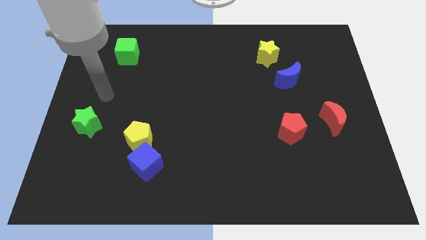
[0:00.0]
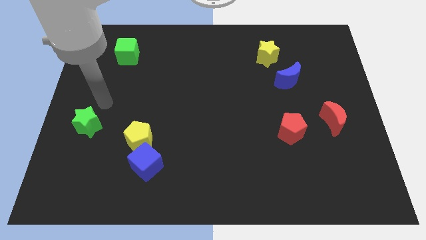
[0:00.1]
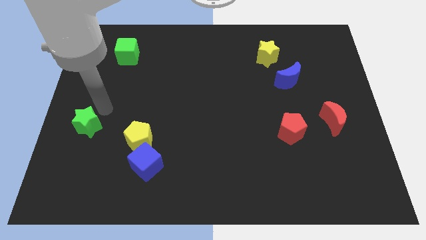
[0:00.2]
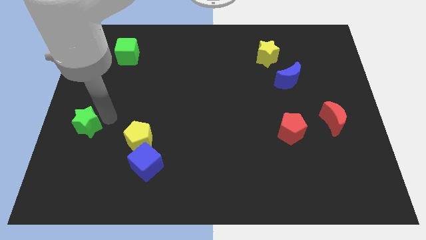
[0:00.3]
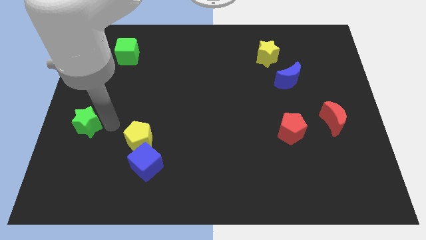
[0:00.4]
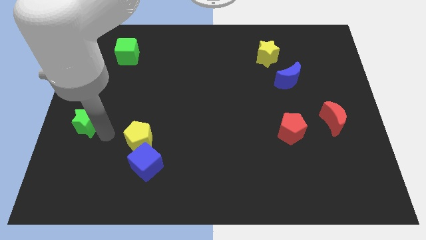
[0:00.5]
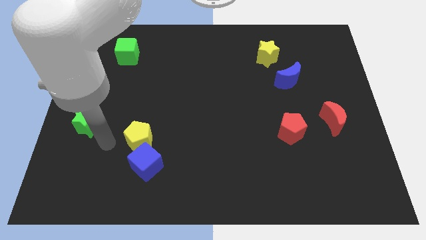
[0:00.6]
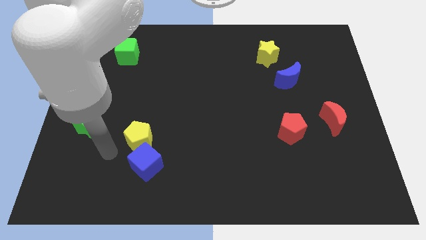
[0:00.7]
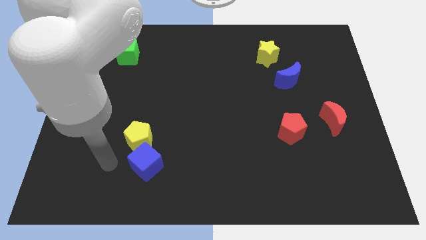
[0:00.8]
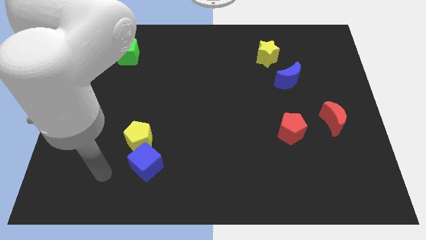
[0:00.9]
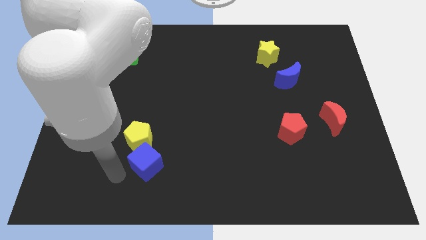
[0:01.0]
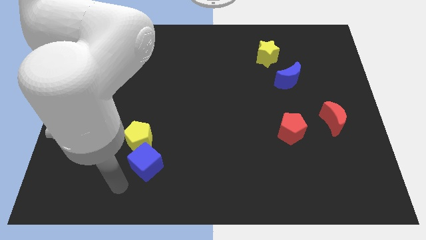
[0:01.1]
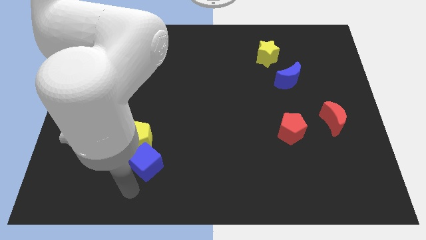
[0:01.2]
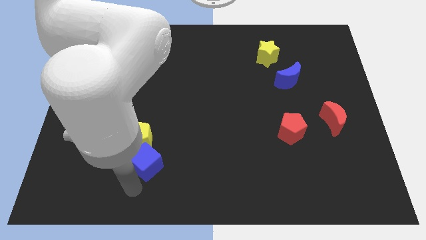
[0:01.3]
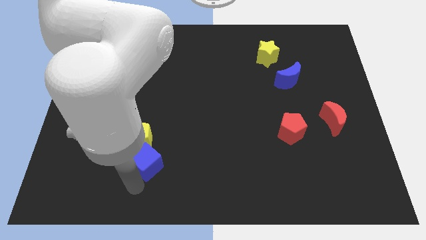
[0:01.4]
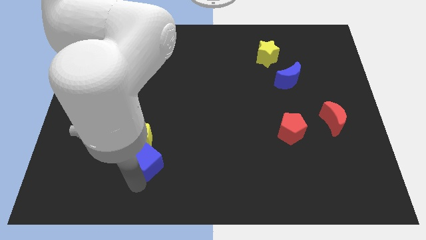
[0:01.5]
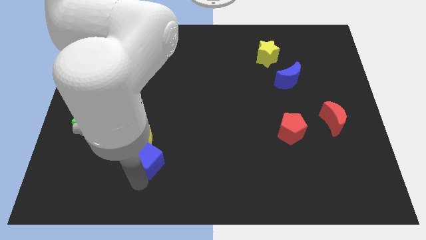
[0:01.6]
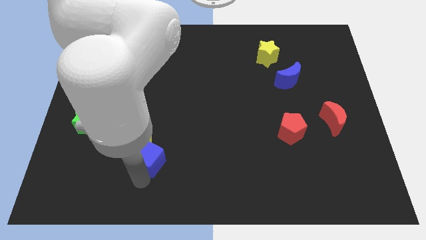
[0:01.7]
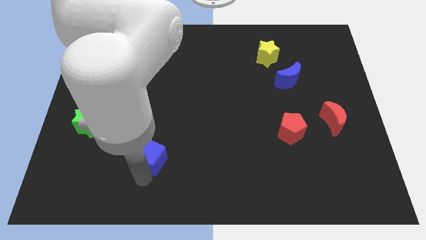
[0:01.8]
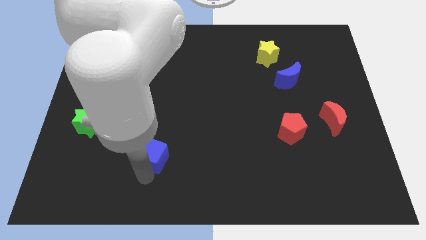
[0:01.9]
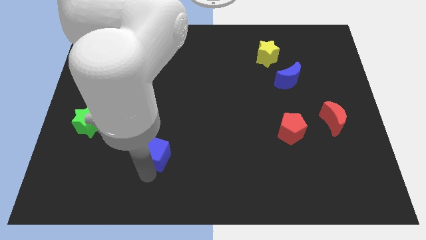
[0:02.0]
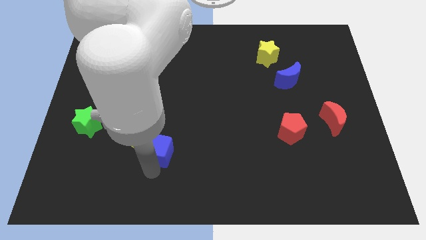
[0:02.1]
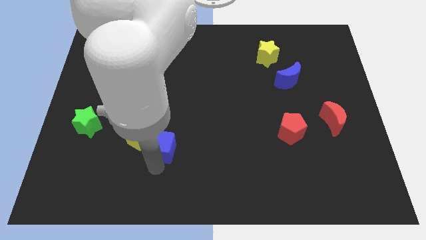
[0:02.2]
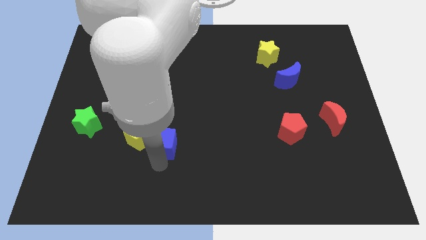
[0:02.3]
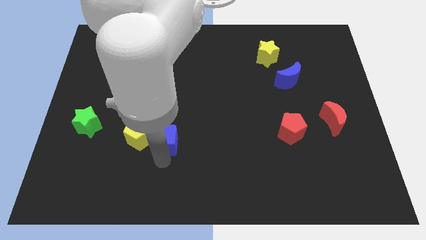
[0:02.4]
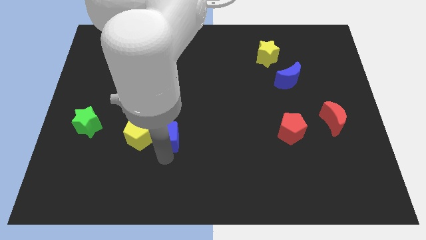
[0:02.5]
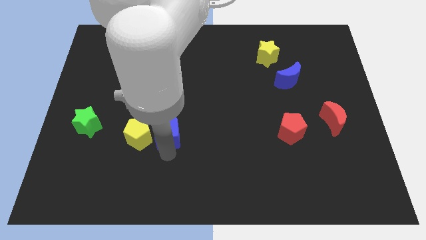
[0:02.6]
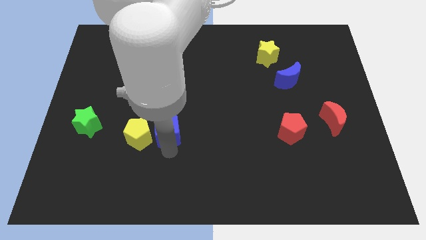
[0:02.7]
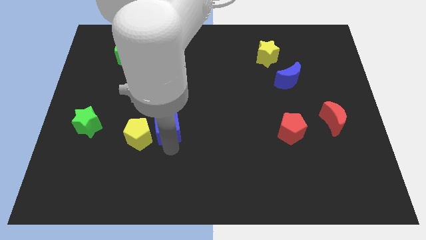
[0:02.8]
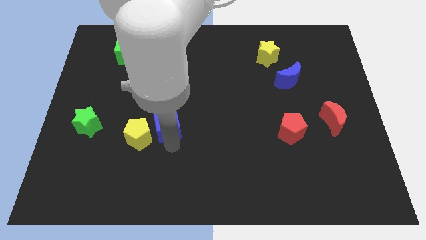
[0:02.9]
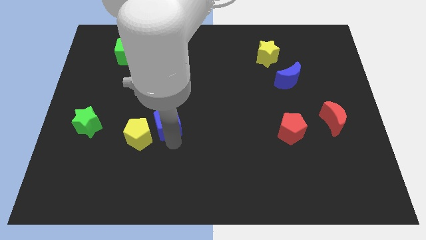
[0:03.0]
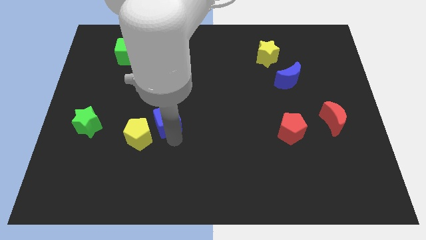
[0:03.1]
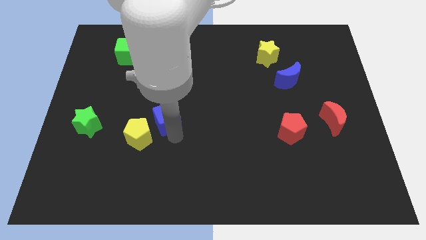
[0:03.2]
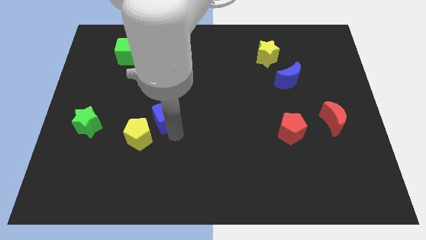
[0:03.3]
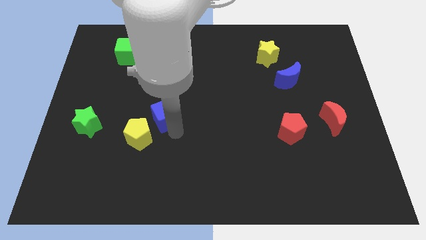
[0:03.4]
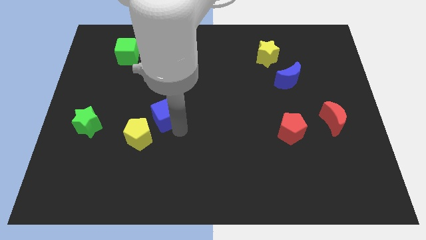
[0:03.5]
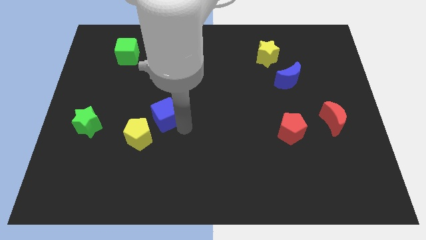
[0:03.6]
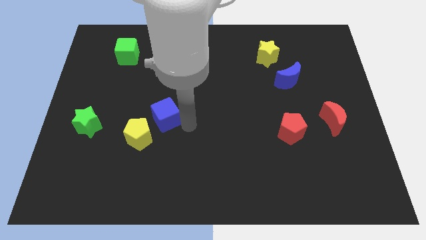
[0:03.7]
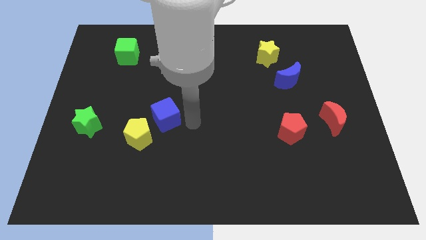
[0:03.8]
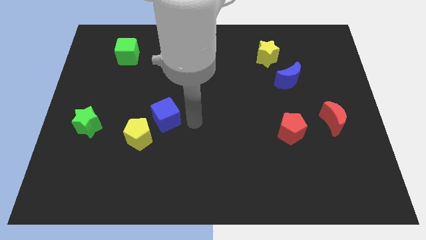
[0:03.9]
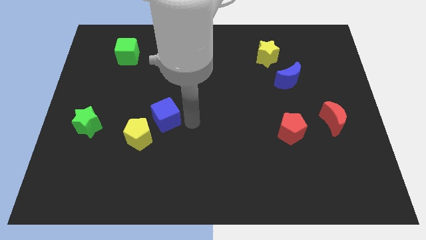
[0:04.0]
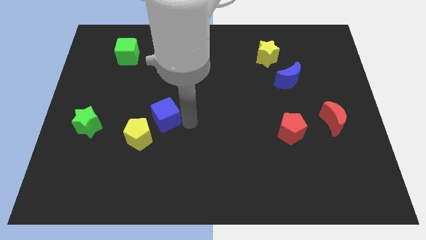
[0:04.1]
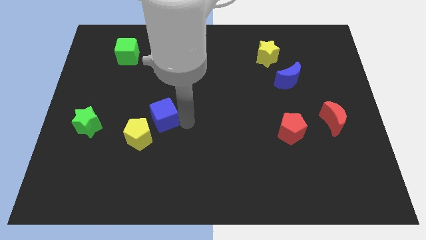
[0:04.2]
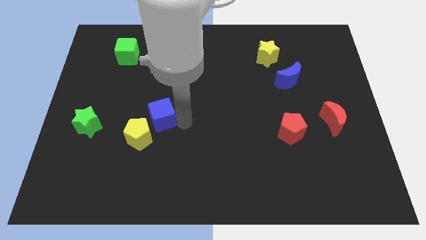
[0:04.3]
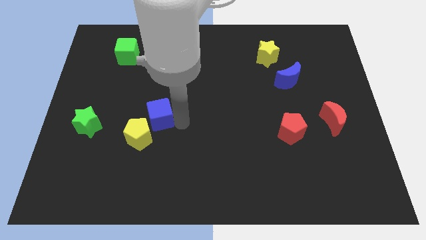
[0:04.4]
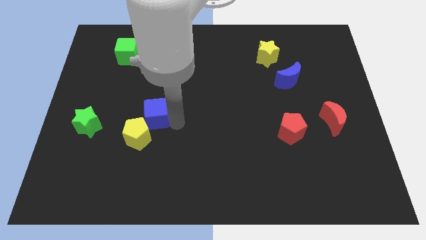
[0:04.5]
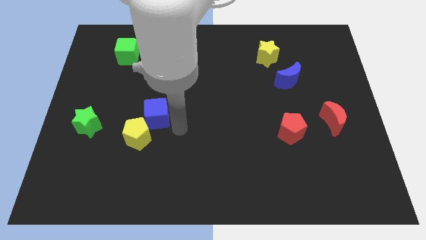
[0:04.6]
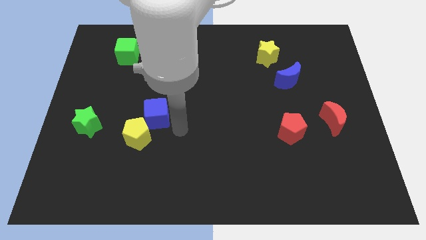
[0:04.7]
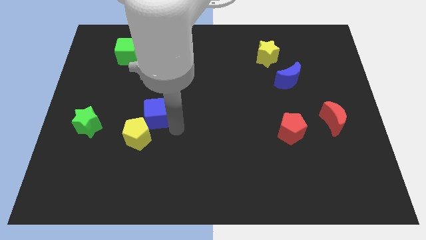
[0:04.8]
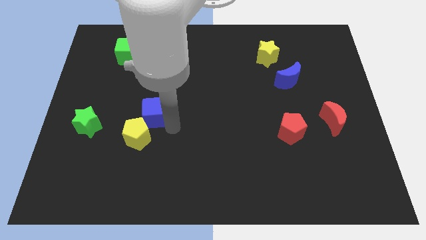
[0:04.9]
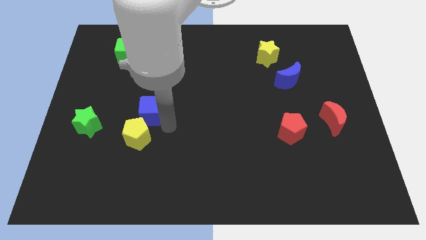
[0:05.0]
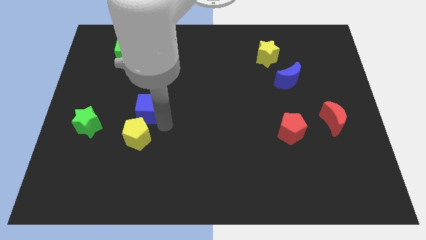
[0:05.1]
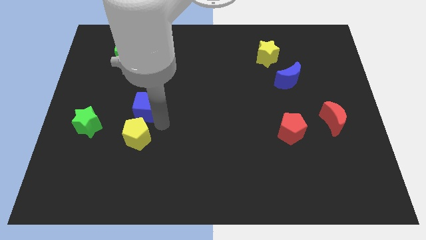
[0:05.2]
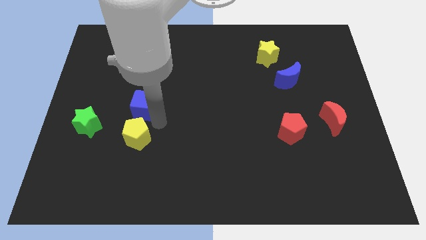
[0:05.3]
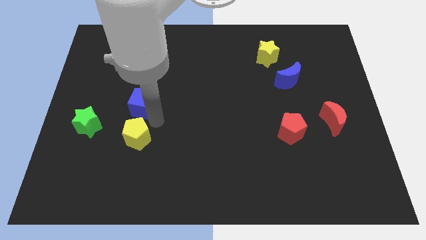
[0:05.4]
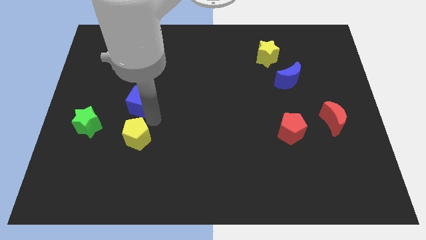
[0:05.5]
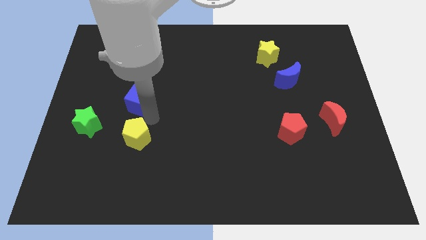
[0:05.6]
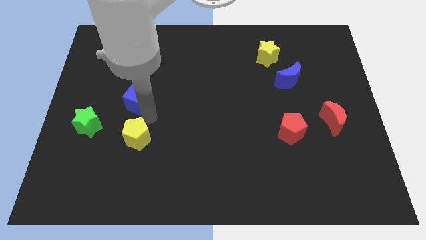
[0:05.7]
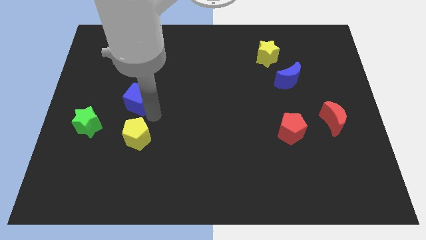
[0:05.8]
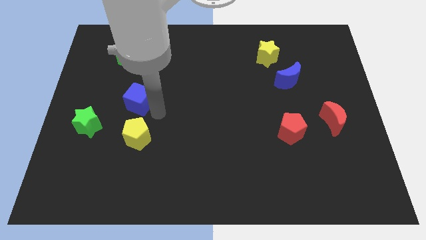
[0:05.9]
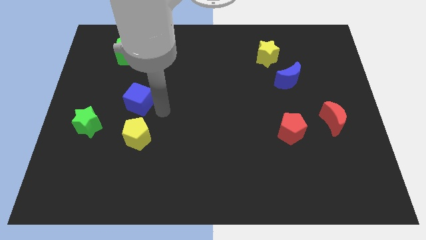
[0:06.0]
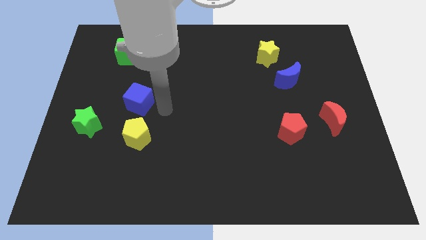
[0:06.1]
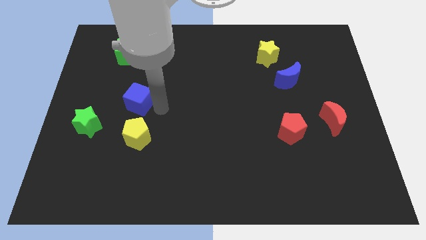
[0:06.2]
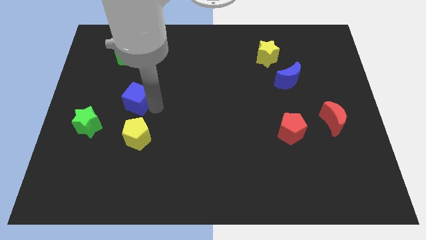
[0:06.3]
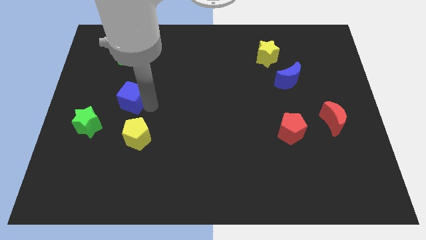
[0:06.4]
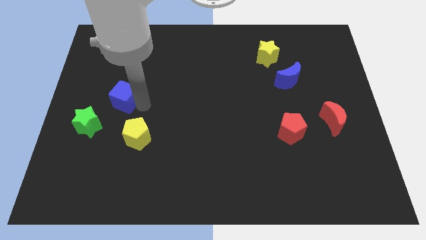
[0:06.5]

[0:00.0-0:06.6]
move the blue cube to the bottom side of the green cube

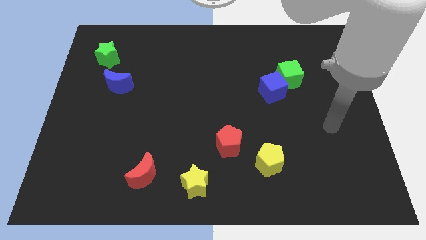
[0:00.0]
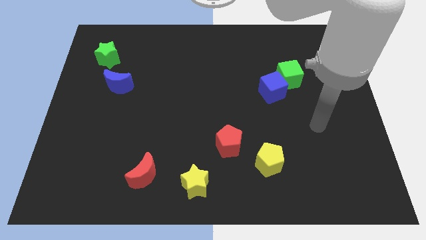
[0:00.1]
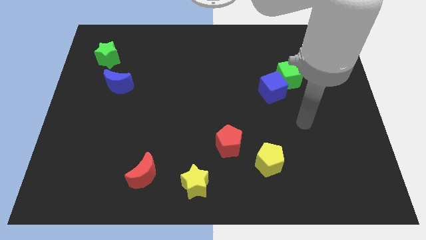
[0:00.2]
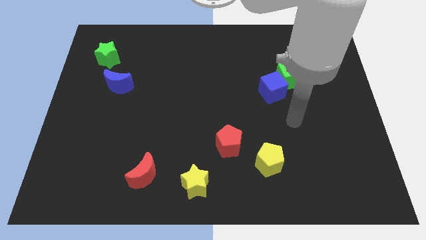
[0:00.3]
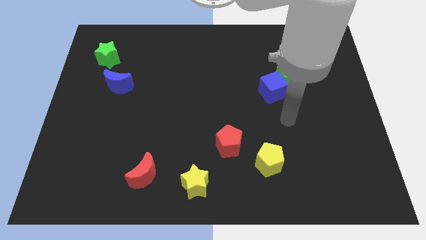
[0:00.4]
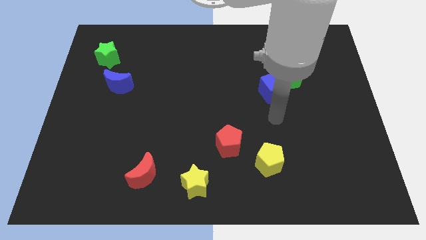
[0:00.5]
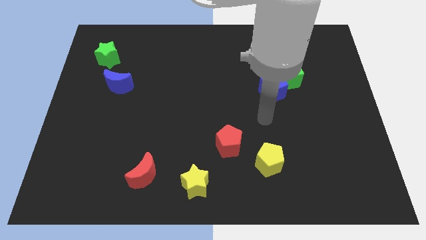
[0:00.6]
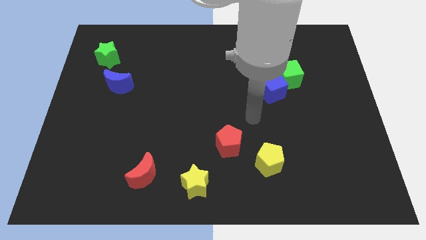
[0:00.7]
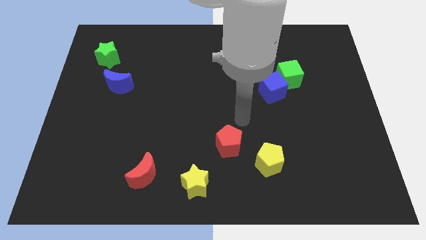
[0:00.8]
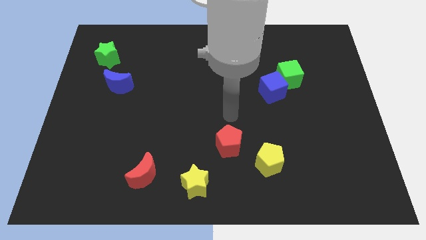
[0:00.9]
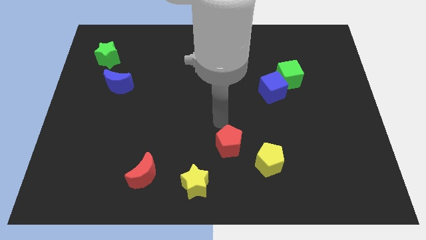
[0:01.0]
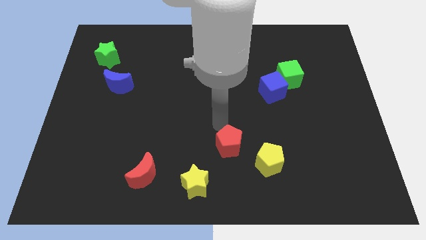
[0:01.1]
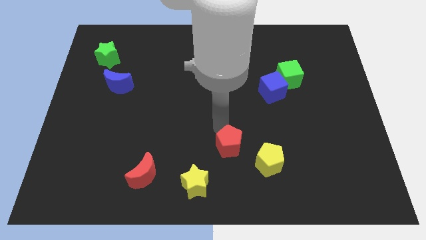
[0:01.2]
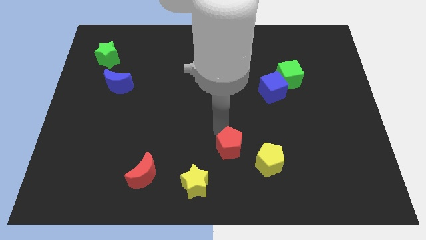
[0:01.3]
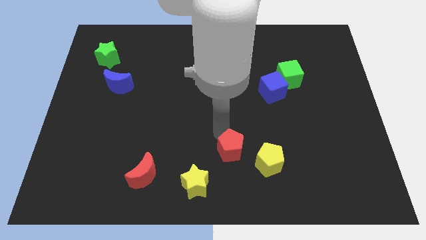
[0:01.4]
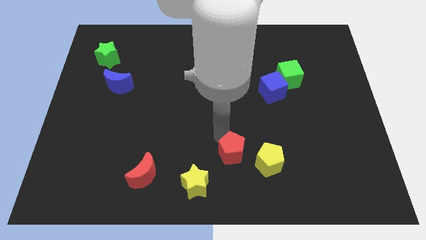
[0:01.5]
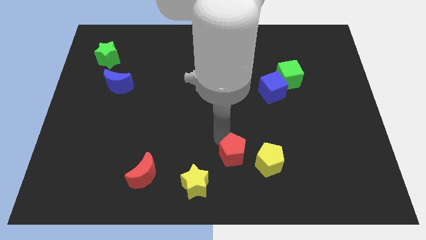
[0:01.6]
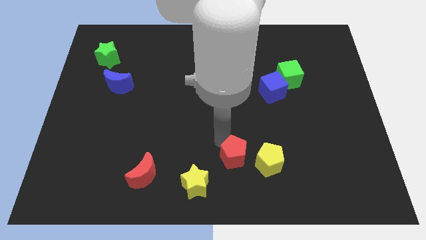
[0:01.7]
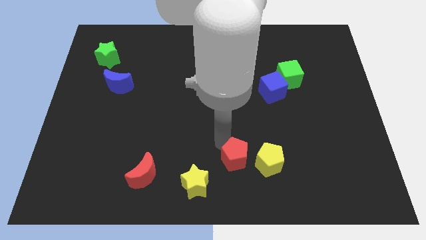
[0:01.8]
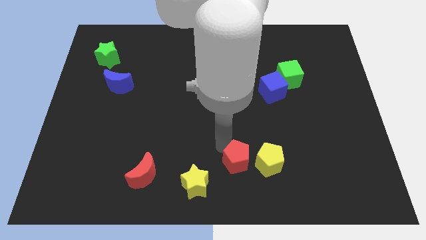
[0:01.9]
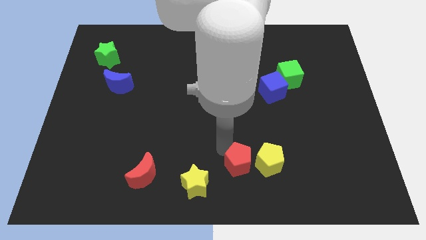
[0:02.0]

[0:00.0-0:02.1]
push the red pentagon to the right of the yellow star
